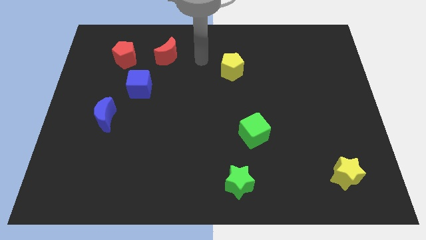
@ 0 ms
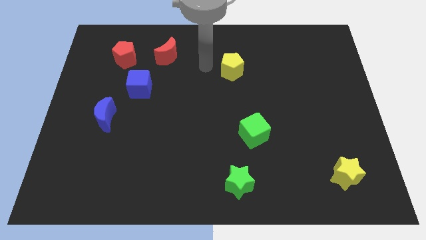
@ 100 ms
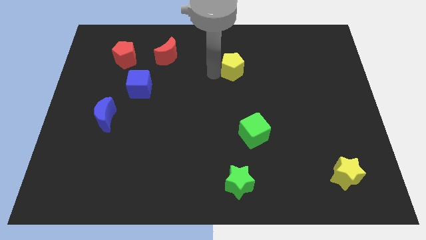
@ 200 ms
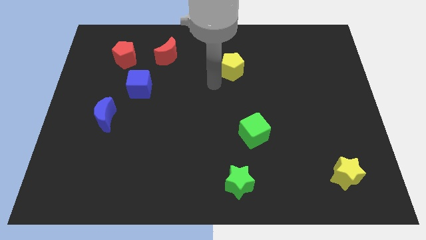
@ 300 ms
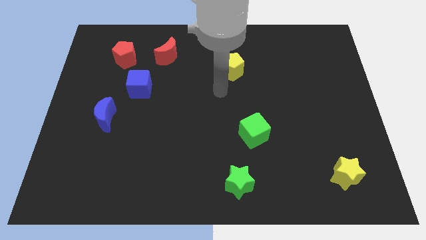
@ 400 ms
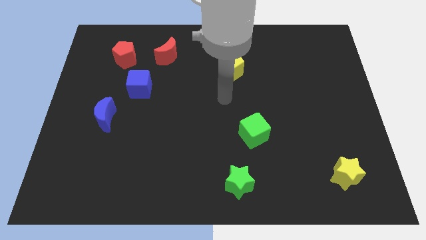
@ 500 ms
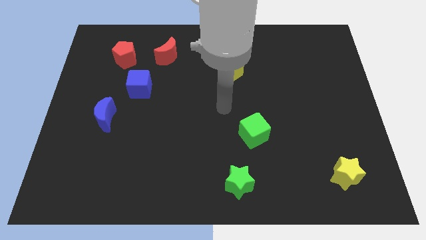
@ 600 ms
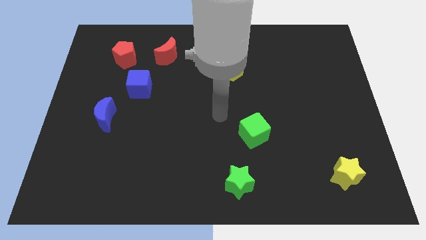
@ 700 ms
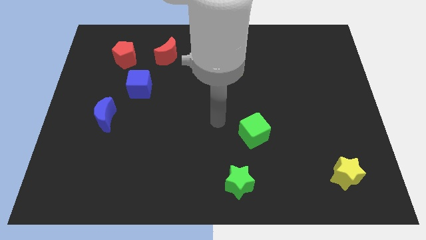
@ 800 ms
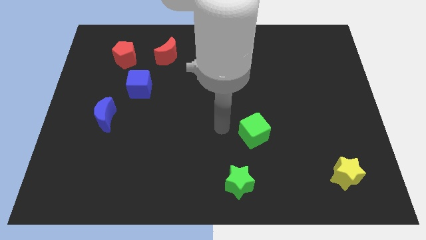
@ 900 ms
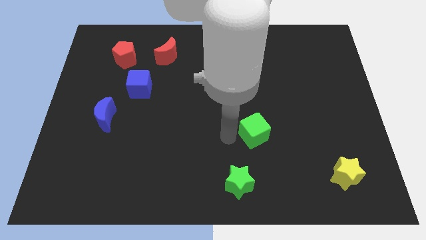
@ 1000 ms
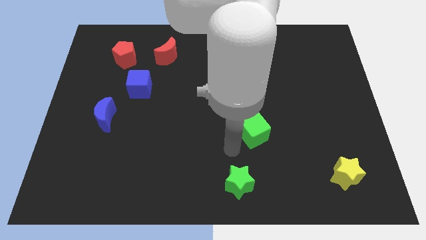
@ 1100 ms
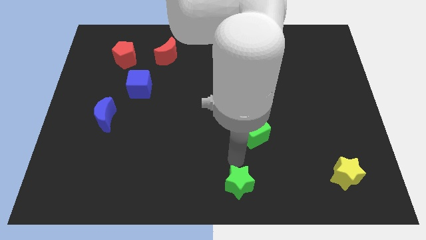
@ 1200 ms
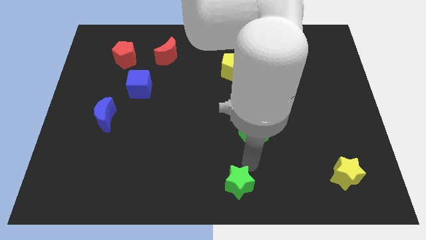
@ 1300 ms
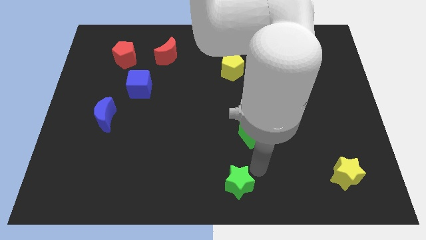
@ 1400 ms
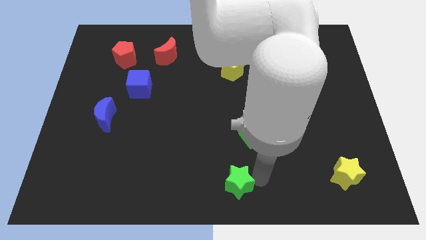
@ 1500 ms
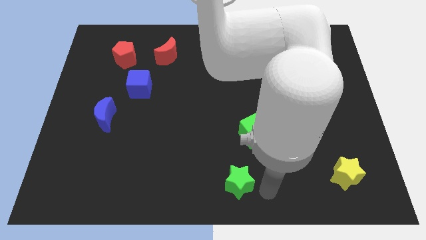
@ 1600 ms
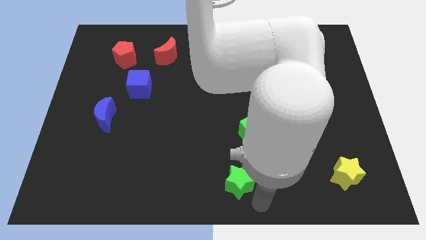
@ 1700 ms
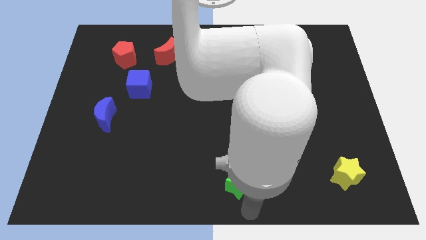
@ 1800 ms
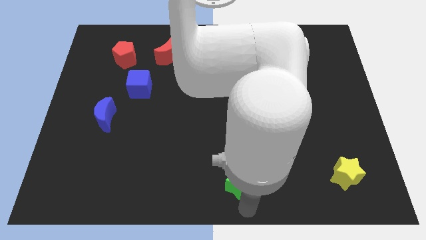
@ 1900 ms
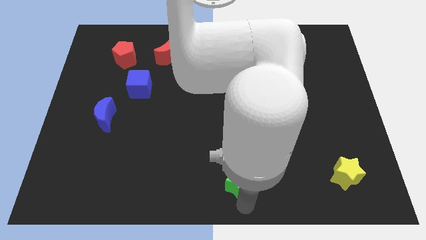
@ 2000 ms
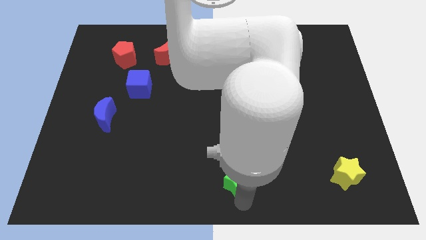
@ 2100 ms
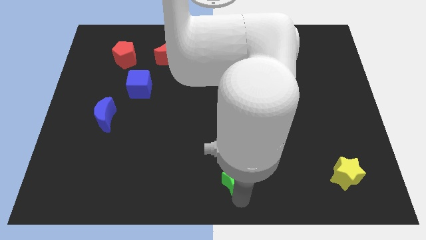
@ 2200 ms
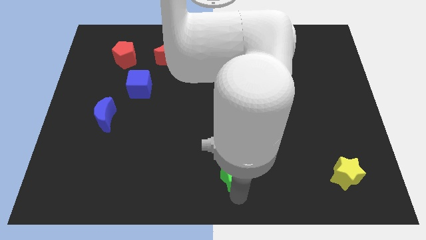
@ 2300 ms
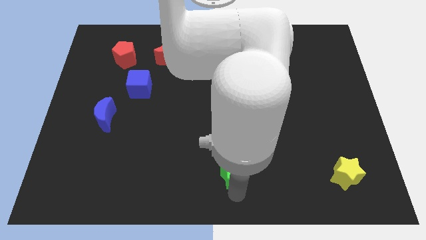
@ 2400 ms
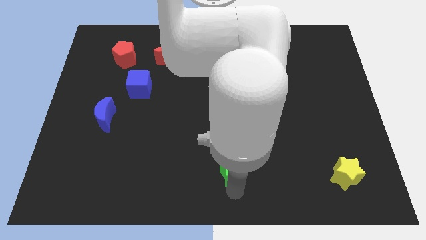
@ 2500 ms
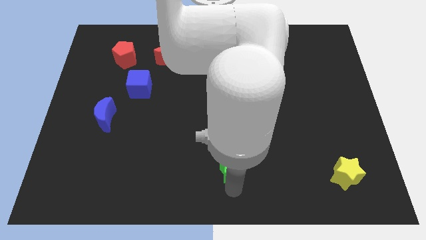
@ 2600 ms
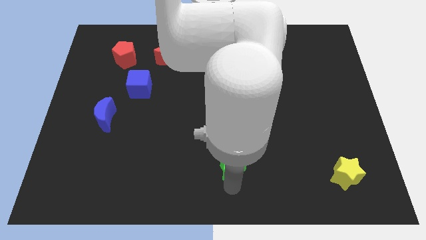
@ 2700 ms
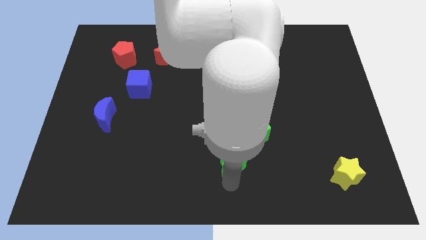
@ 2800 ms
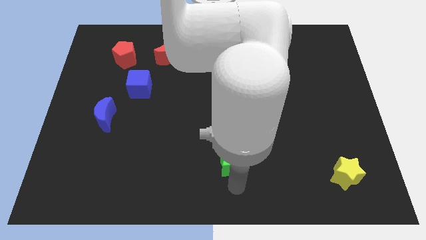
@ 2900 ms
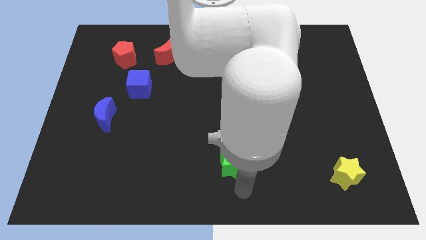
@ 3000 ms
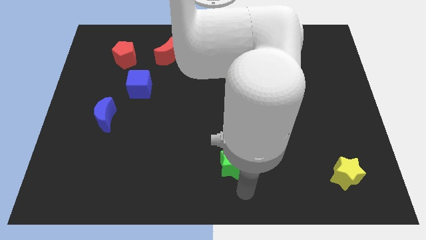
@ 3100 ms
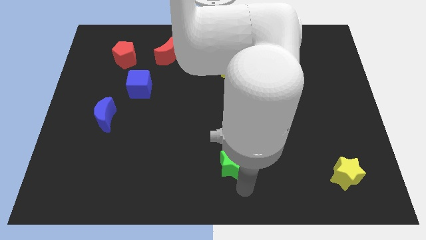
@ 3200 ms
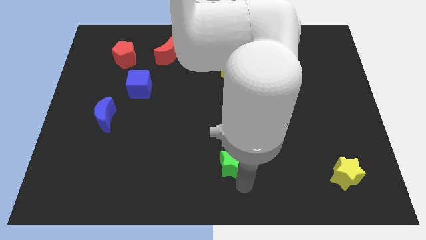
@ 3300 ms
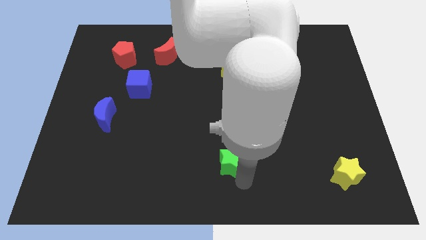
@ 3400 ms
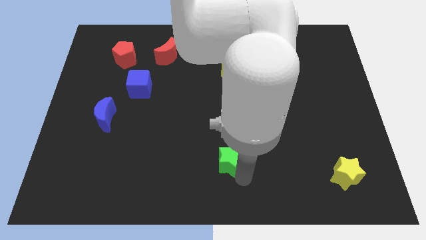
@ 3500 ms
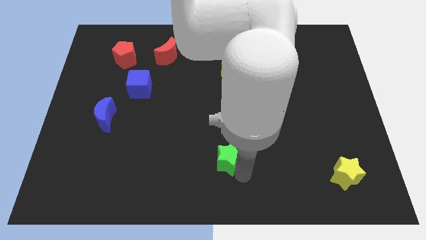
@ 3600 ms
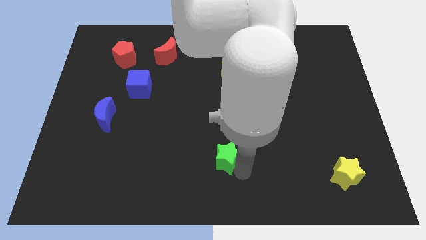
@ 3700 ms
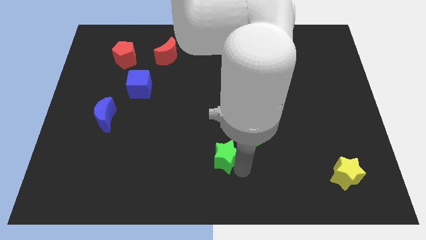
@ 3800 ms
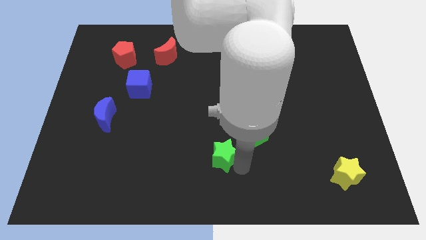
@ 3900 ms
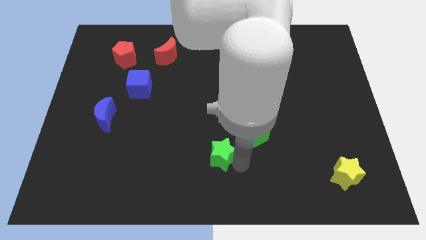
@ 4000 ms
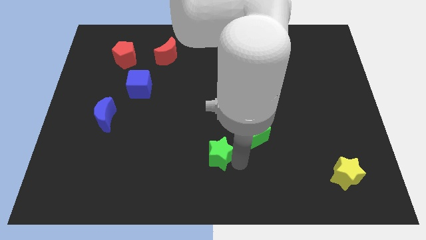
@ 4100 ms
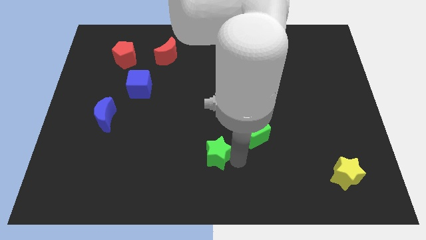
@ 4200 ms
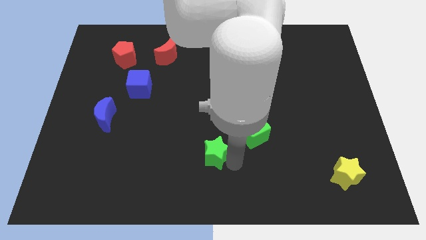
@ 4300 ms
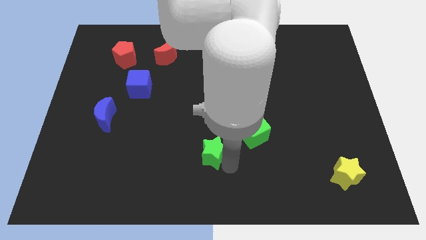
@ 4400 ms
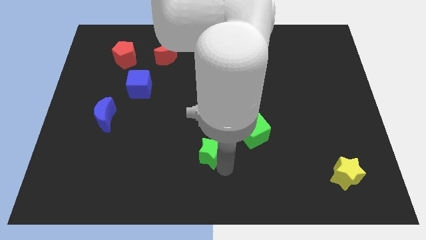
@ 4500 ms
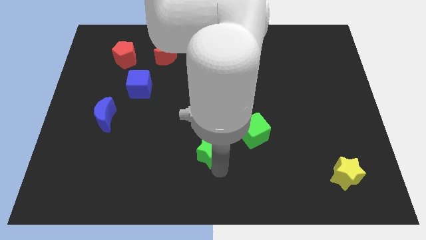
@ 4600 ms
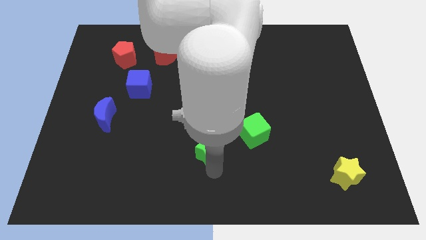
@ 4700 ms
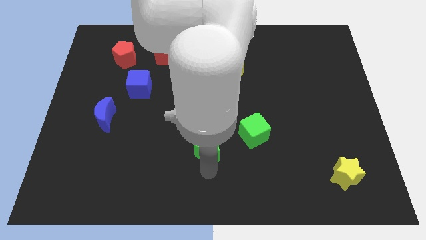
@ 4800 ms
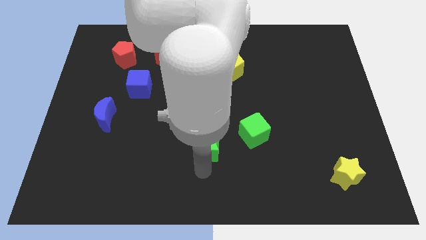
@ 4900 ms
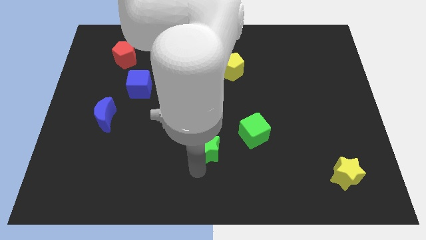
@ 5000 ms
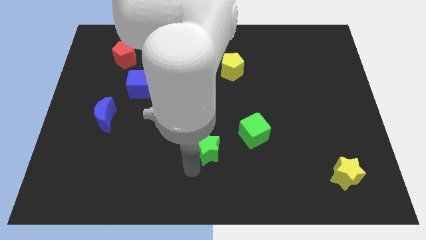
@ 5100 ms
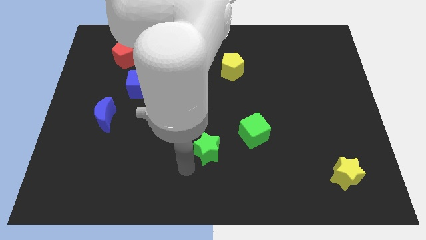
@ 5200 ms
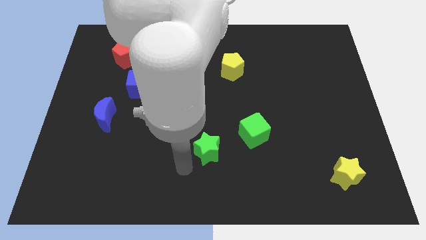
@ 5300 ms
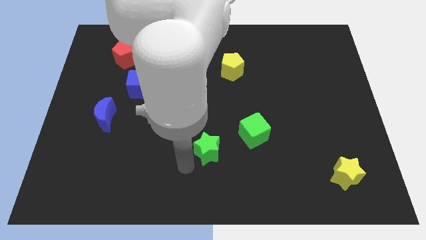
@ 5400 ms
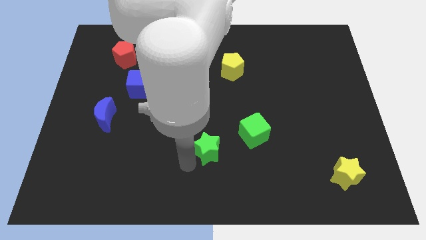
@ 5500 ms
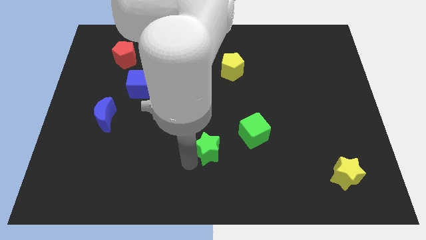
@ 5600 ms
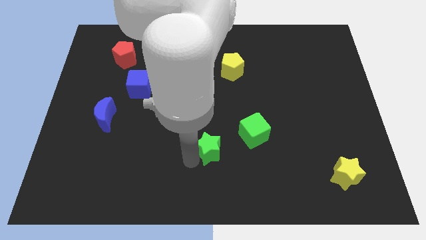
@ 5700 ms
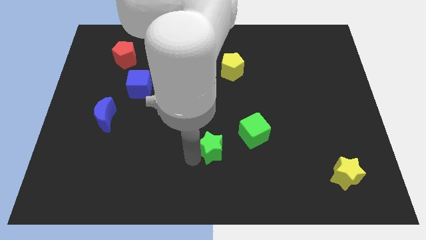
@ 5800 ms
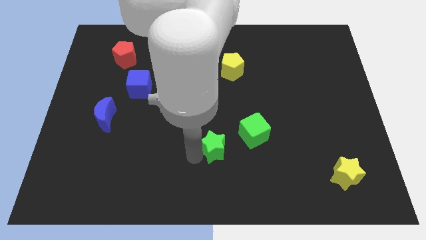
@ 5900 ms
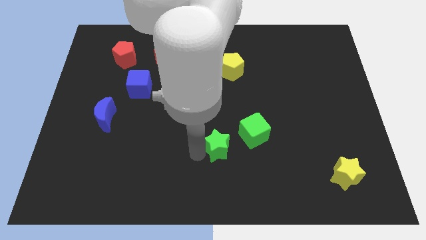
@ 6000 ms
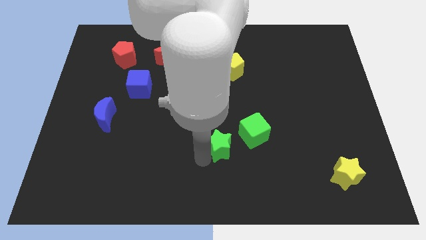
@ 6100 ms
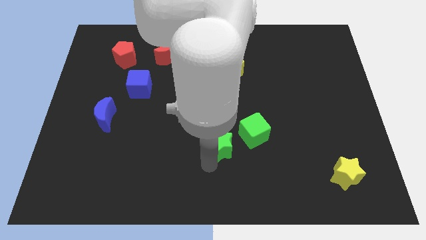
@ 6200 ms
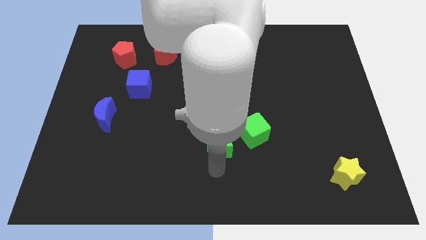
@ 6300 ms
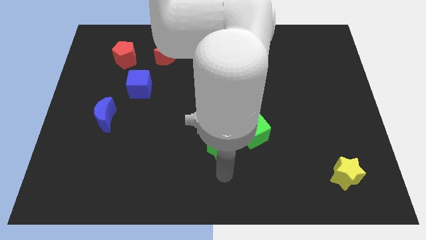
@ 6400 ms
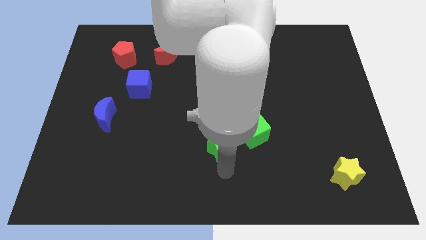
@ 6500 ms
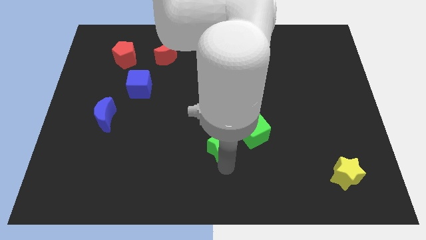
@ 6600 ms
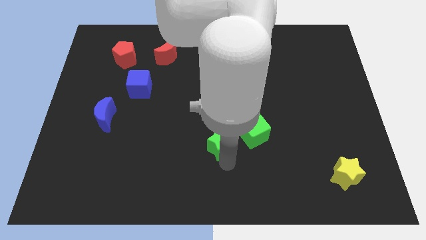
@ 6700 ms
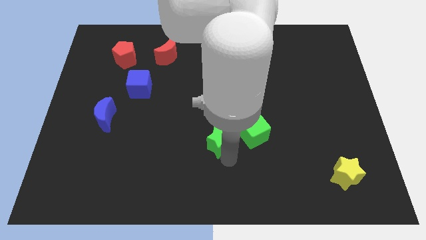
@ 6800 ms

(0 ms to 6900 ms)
put the green star to the middle
